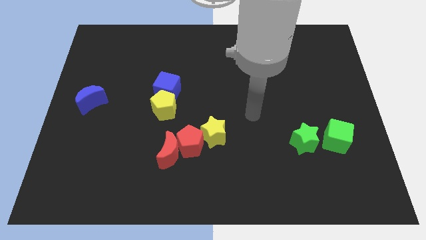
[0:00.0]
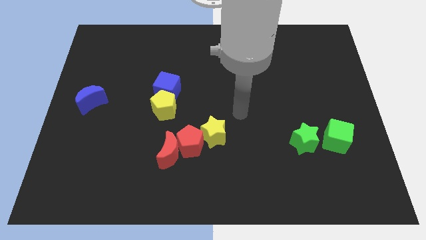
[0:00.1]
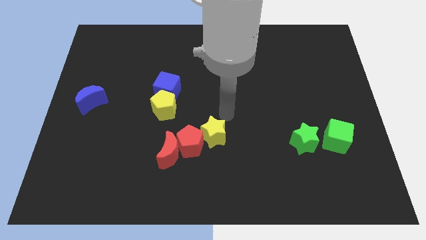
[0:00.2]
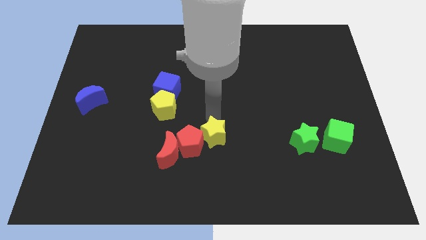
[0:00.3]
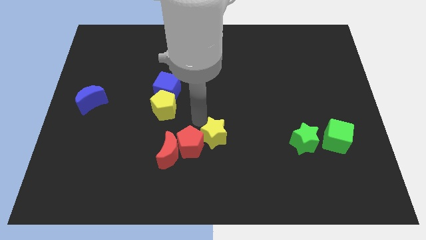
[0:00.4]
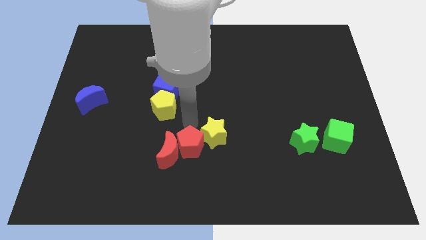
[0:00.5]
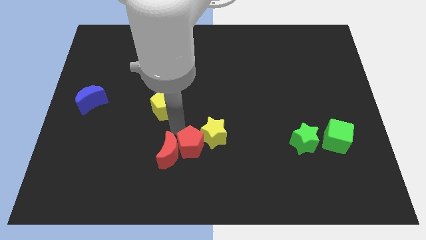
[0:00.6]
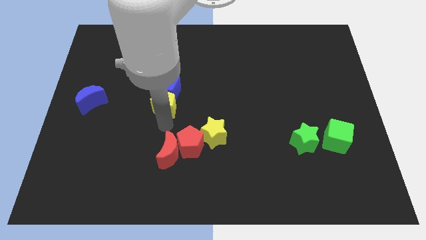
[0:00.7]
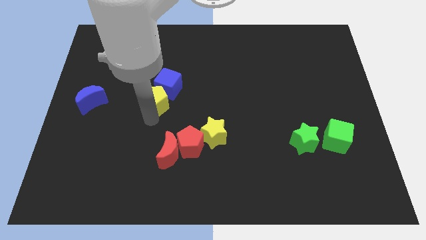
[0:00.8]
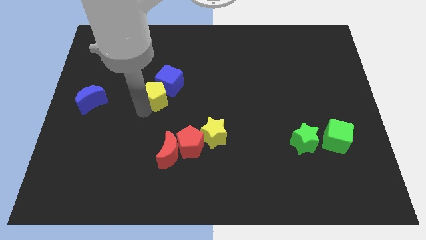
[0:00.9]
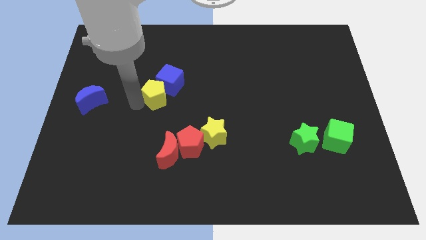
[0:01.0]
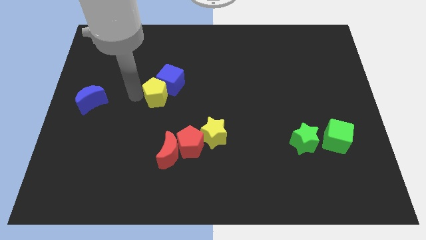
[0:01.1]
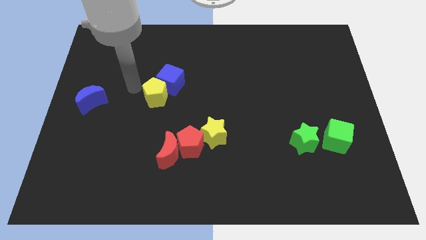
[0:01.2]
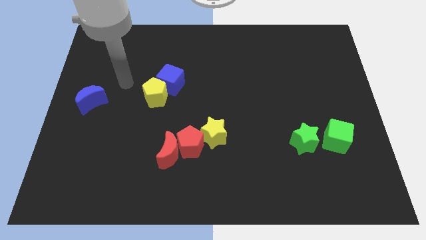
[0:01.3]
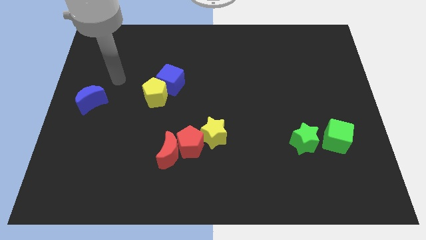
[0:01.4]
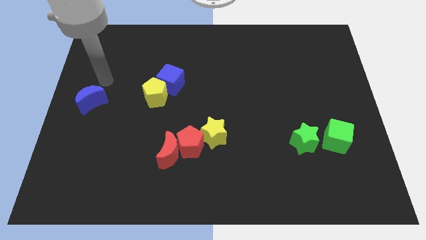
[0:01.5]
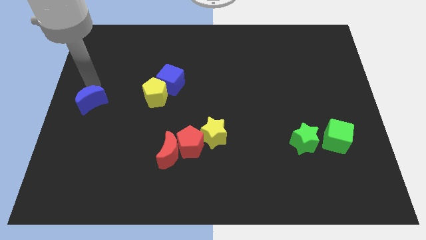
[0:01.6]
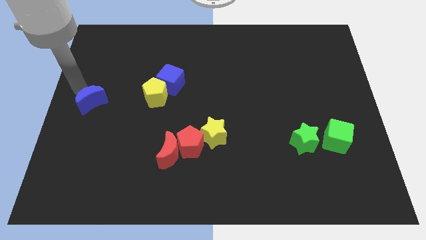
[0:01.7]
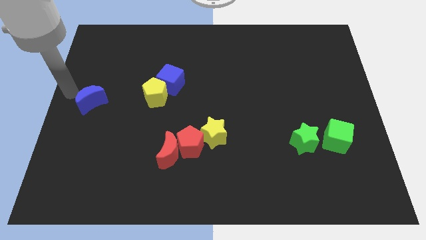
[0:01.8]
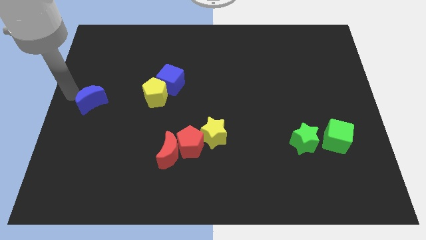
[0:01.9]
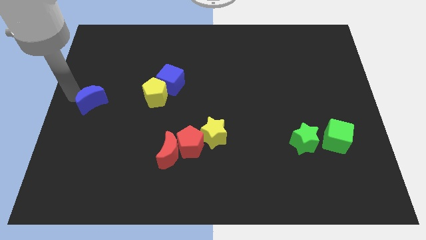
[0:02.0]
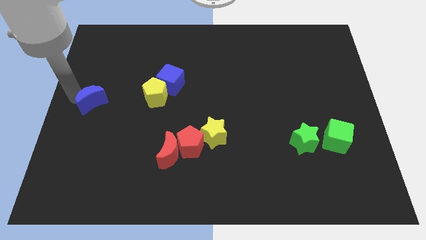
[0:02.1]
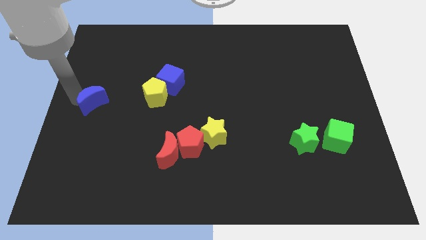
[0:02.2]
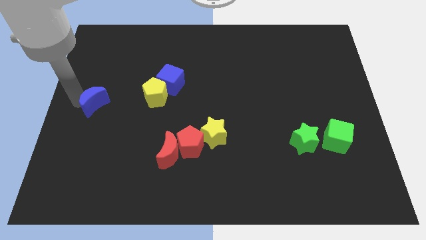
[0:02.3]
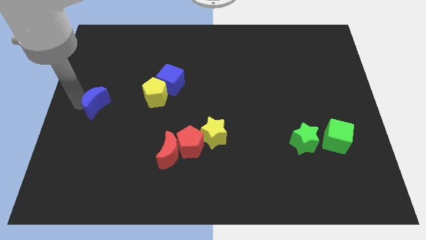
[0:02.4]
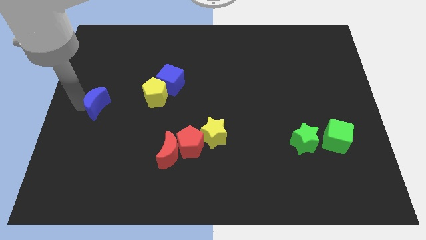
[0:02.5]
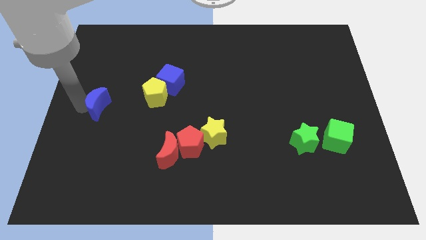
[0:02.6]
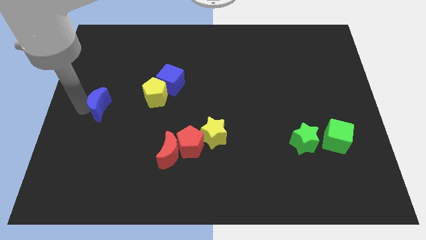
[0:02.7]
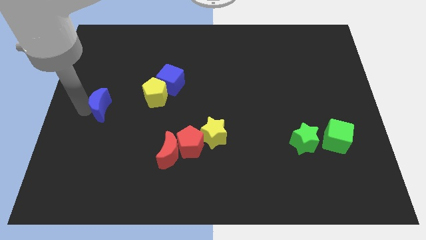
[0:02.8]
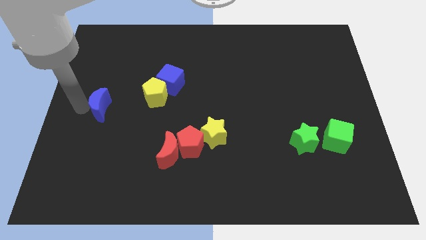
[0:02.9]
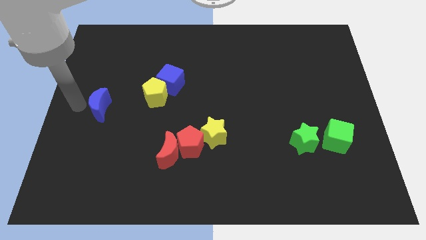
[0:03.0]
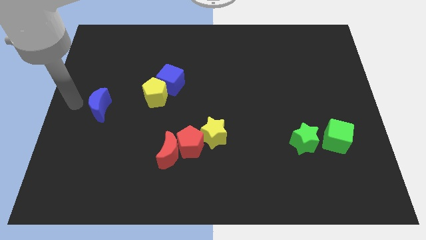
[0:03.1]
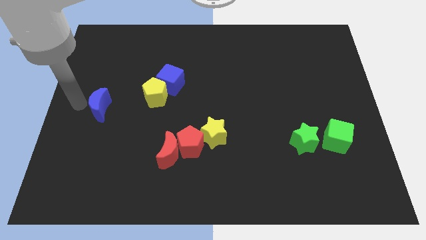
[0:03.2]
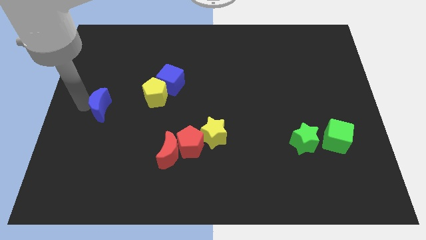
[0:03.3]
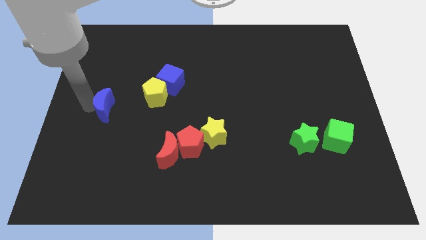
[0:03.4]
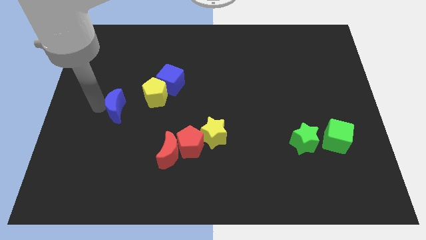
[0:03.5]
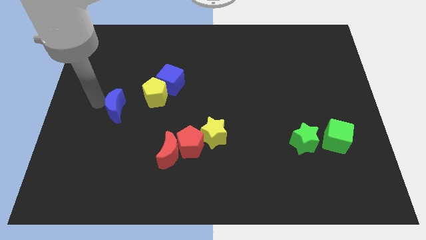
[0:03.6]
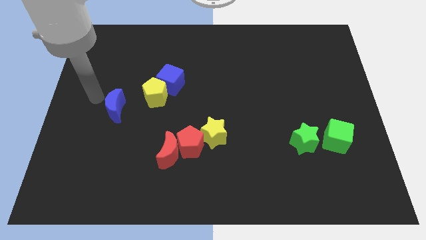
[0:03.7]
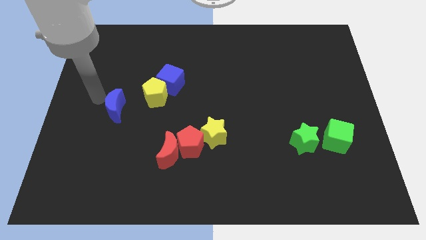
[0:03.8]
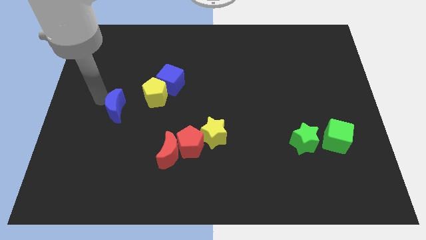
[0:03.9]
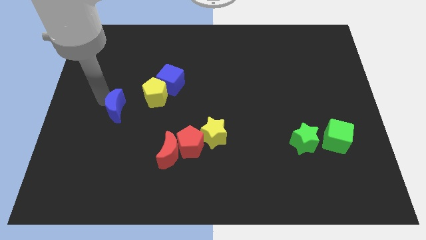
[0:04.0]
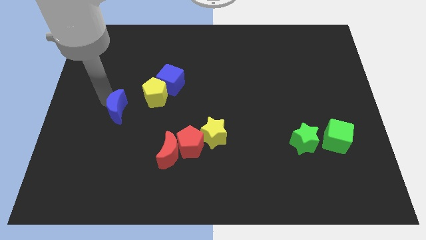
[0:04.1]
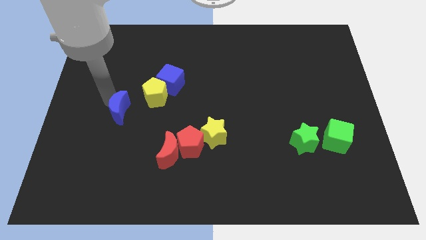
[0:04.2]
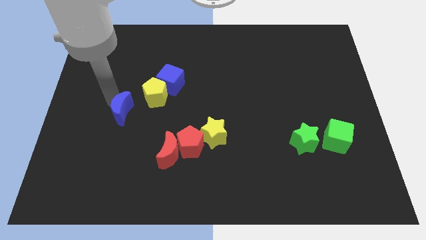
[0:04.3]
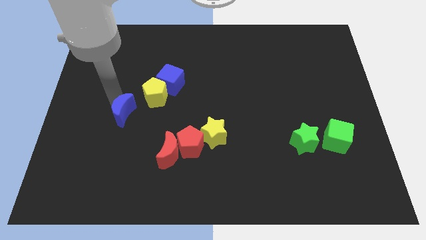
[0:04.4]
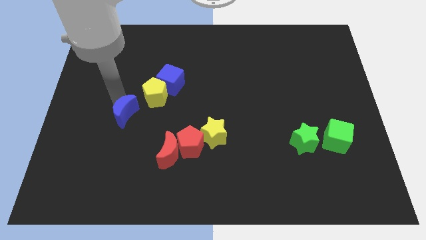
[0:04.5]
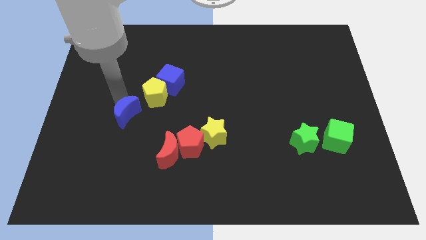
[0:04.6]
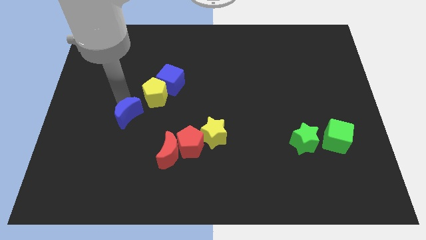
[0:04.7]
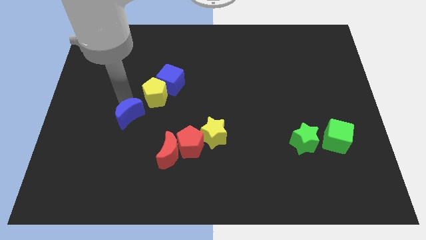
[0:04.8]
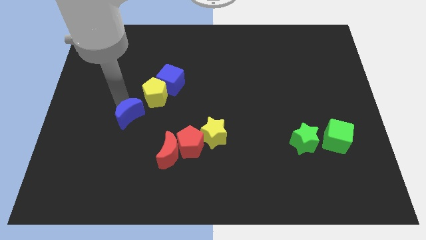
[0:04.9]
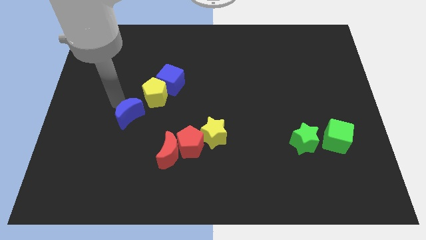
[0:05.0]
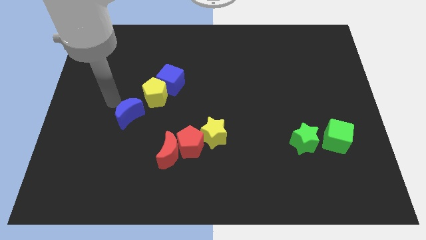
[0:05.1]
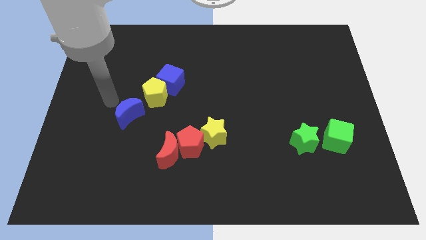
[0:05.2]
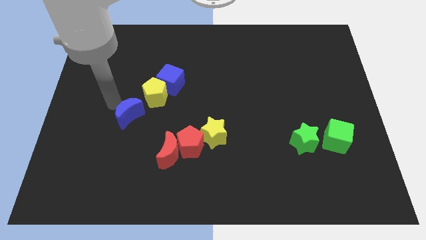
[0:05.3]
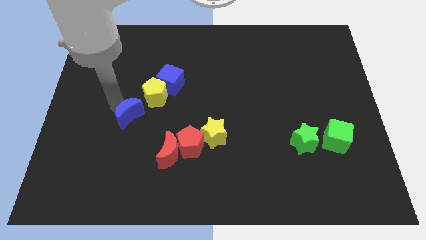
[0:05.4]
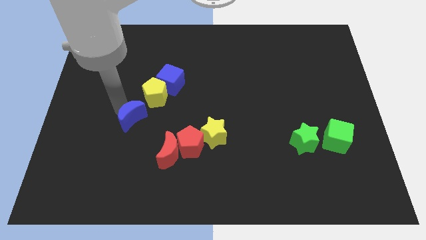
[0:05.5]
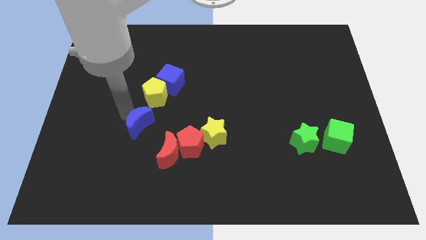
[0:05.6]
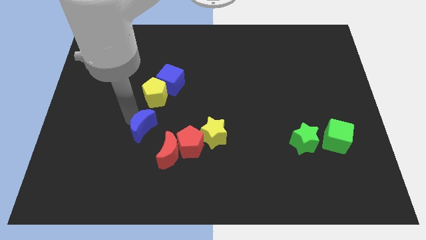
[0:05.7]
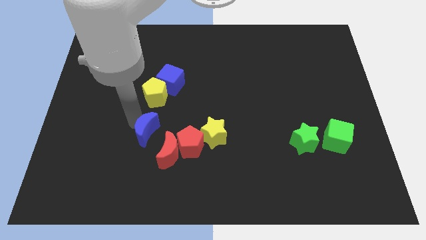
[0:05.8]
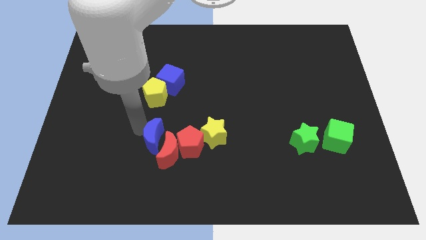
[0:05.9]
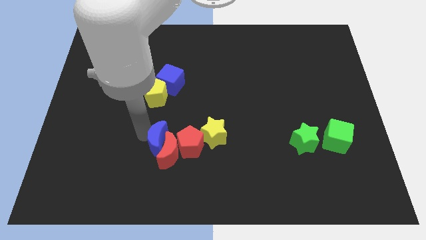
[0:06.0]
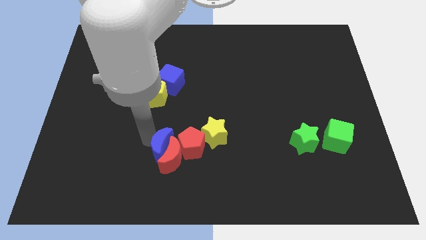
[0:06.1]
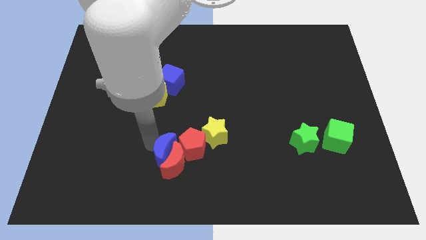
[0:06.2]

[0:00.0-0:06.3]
move the blue moon close to the red pentagon
